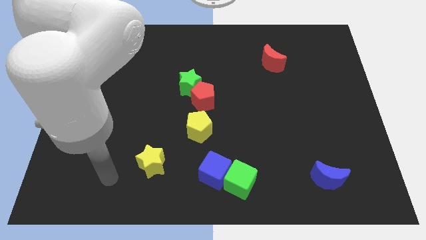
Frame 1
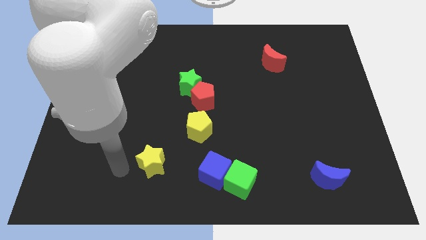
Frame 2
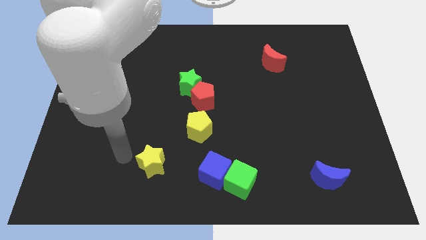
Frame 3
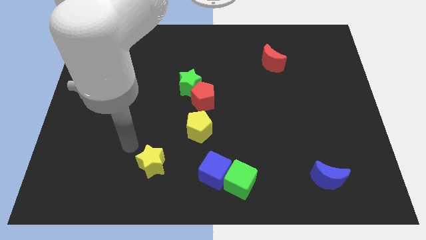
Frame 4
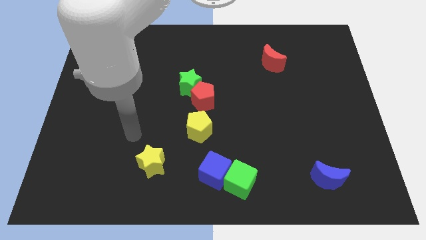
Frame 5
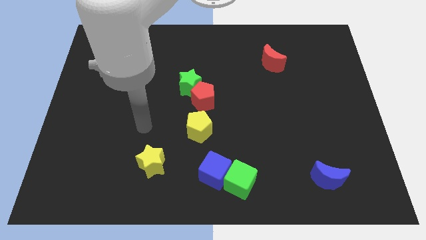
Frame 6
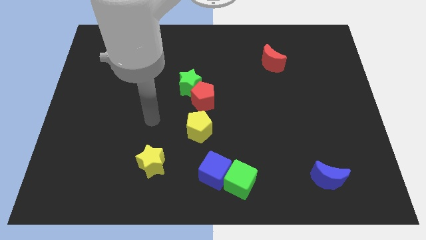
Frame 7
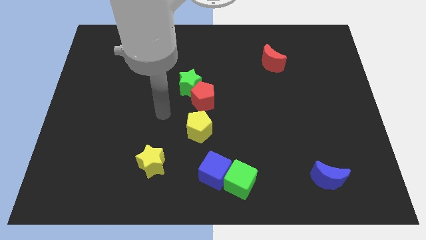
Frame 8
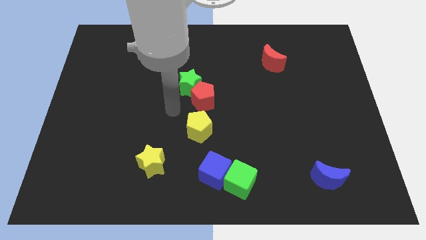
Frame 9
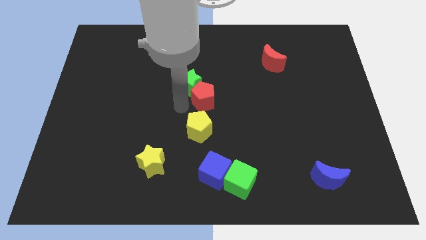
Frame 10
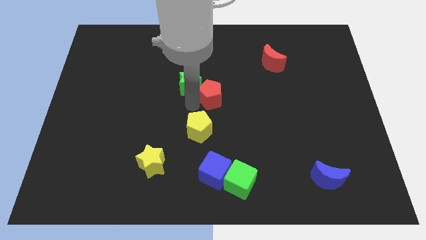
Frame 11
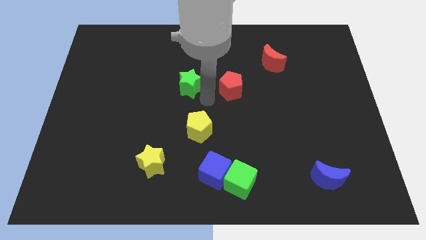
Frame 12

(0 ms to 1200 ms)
pull the green star apart from the red pentagon

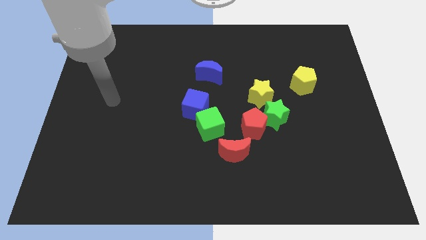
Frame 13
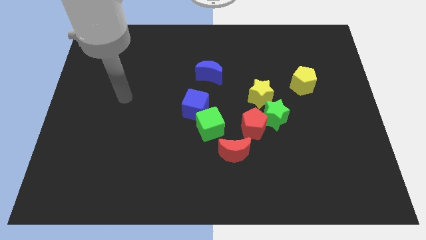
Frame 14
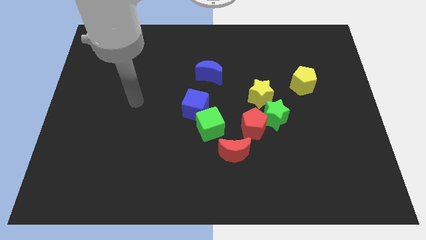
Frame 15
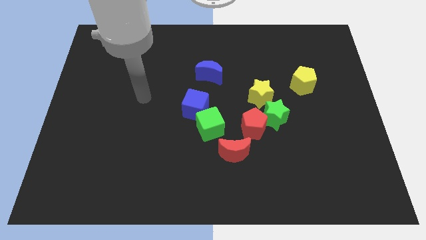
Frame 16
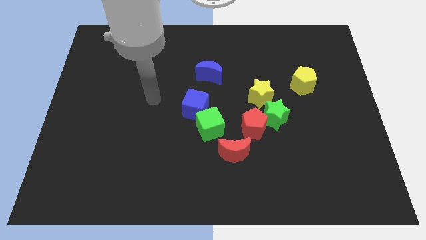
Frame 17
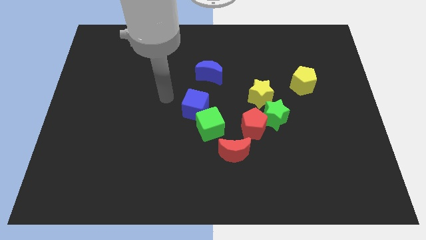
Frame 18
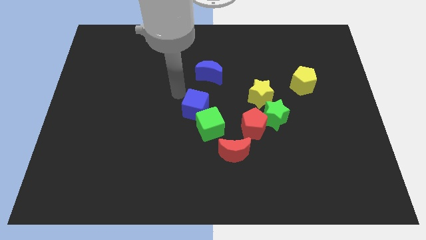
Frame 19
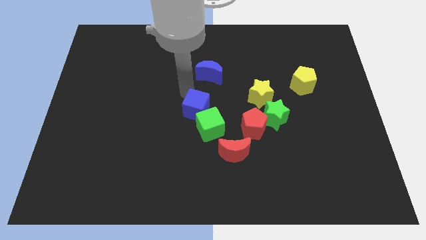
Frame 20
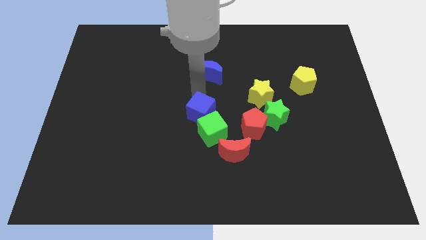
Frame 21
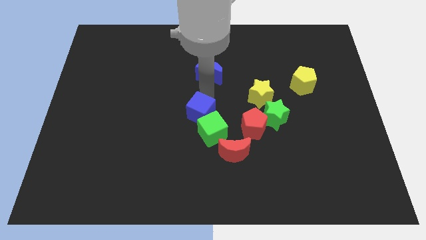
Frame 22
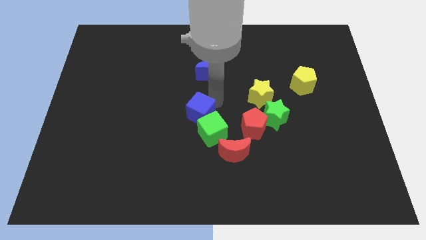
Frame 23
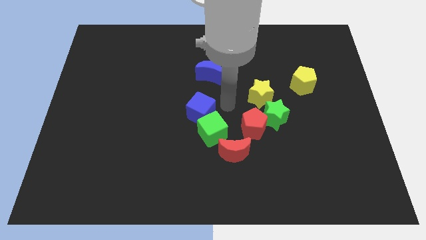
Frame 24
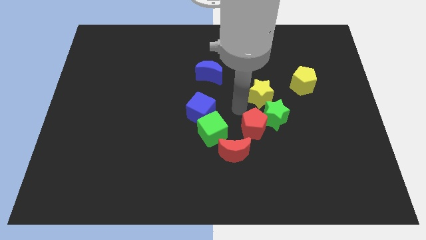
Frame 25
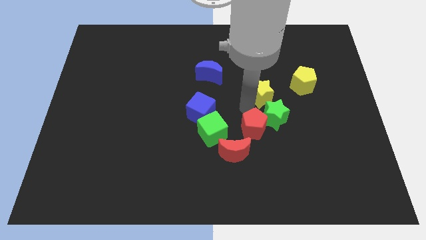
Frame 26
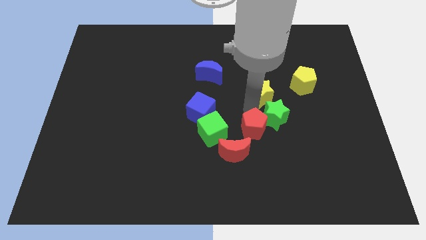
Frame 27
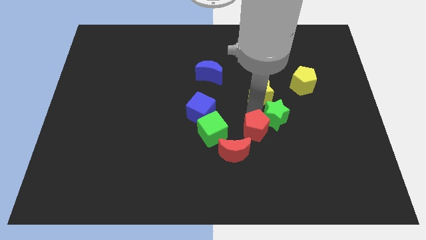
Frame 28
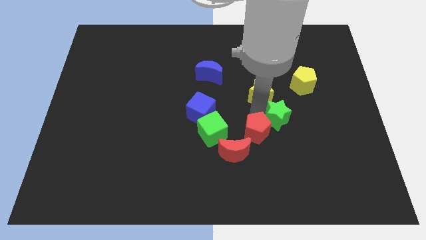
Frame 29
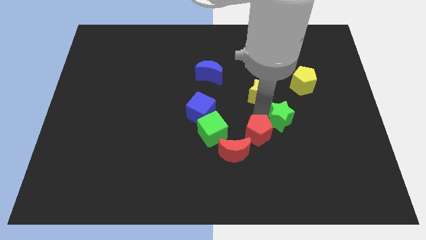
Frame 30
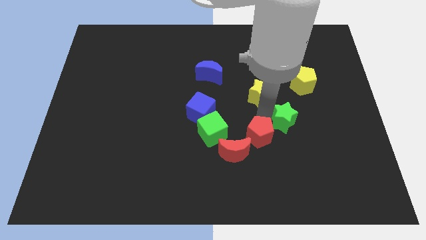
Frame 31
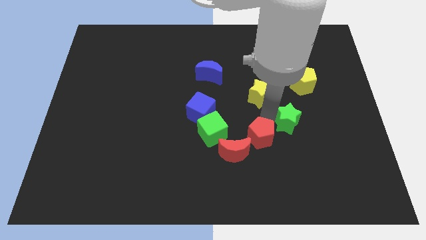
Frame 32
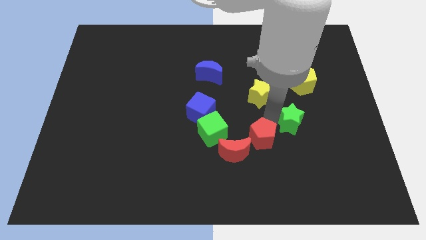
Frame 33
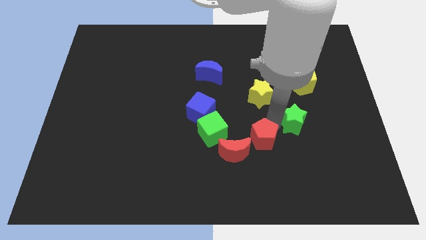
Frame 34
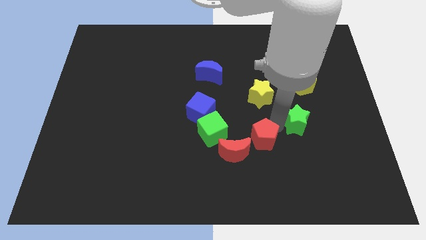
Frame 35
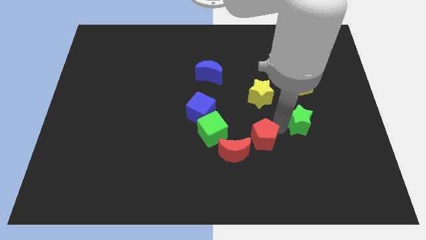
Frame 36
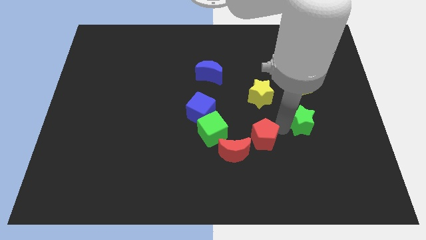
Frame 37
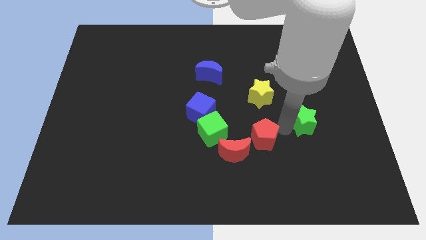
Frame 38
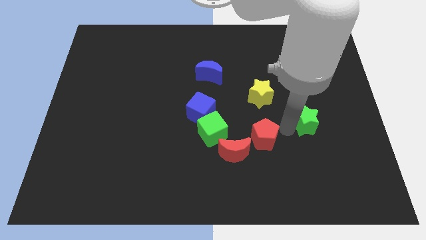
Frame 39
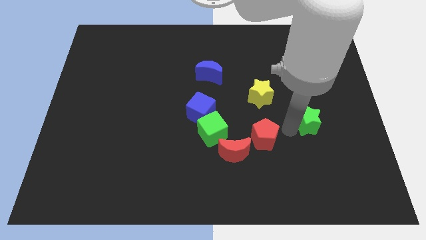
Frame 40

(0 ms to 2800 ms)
move the green star away from the red pentagon and yellow star

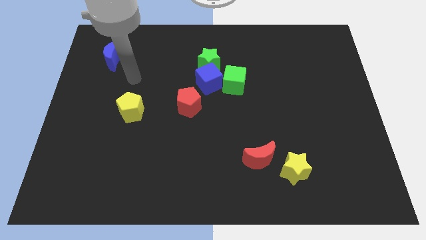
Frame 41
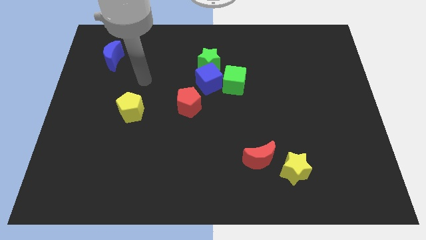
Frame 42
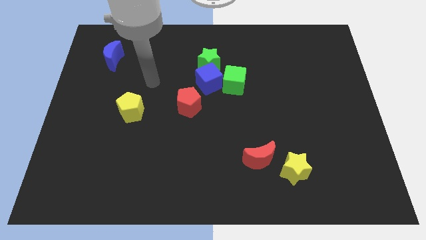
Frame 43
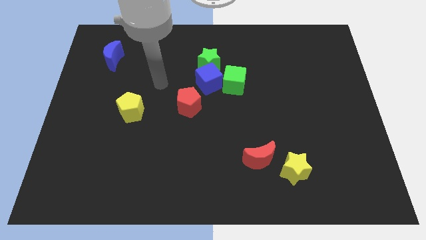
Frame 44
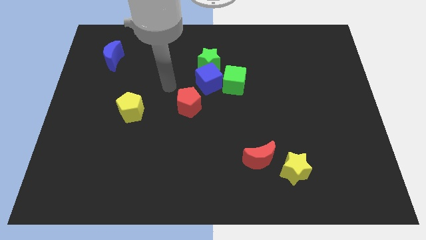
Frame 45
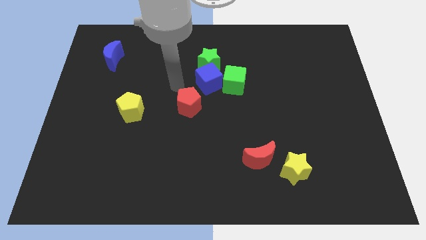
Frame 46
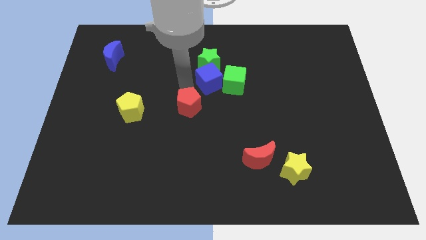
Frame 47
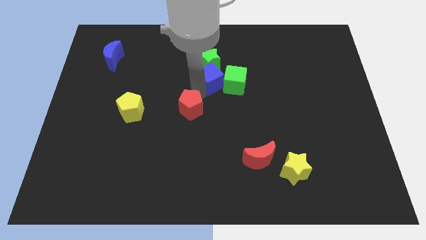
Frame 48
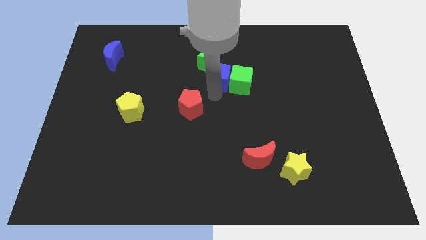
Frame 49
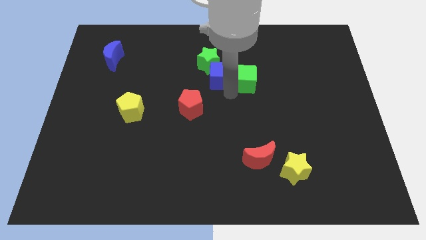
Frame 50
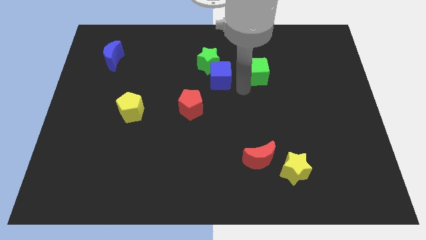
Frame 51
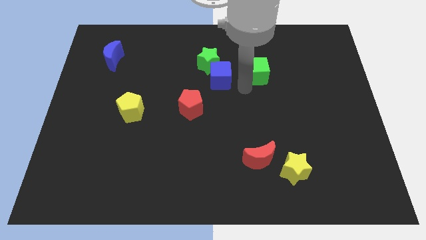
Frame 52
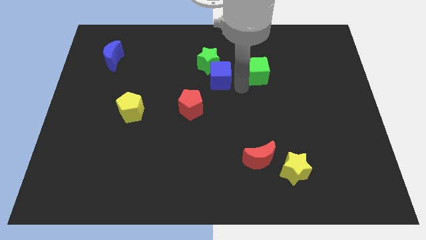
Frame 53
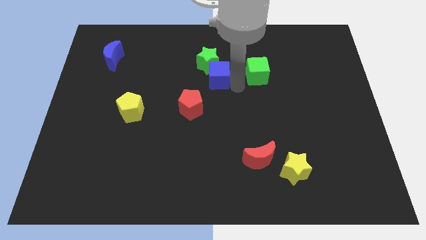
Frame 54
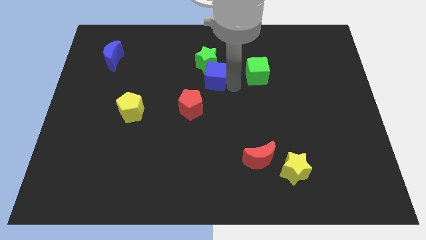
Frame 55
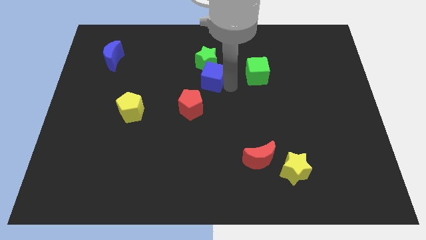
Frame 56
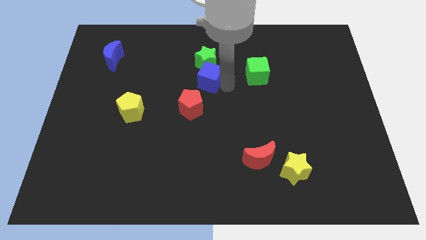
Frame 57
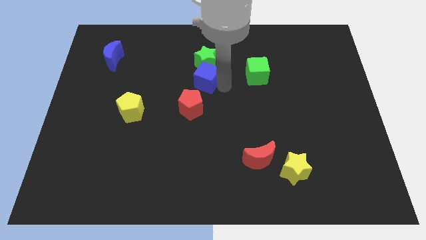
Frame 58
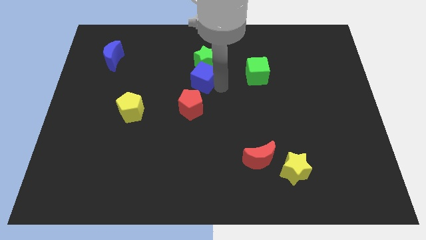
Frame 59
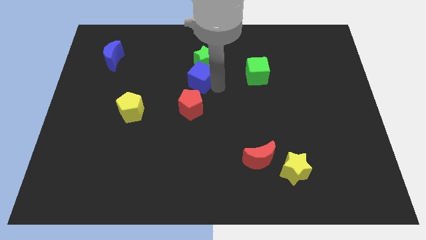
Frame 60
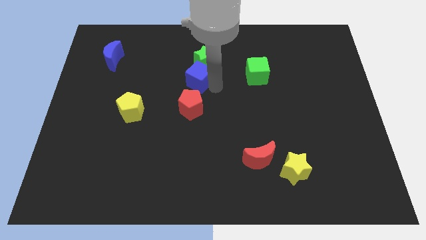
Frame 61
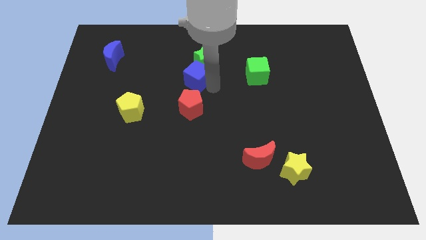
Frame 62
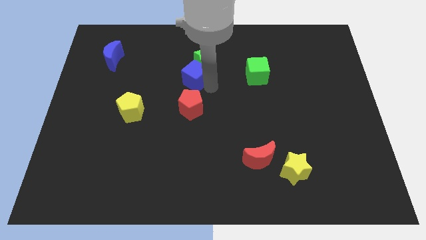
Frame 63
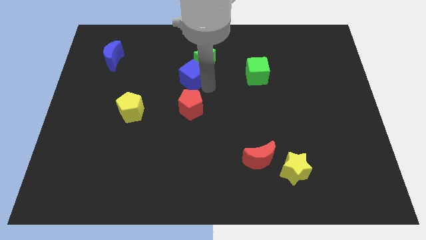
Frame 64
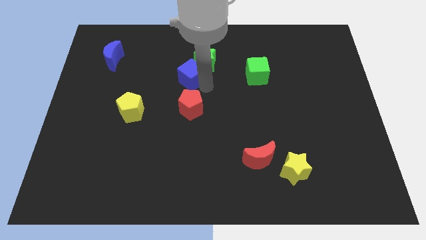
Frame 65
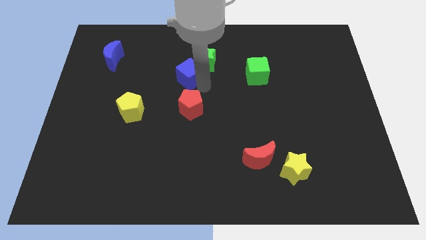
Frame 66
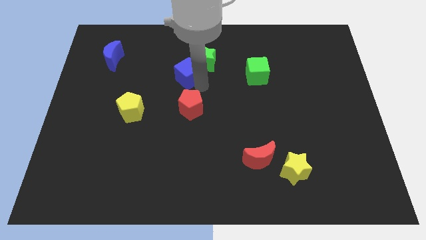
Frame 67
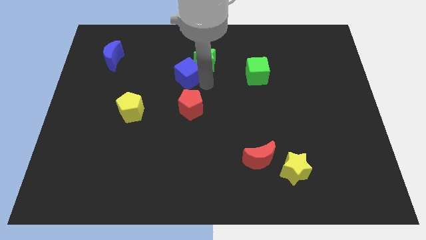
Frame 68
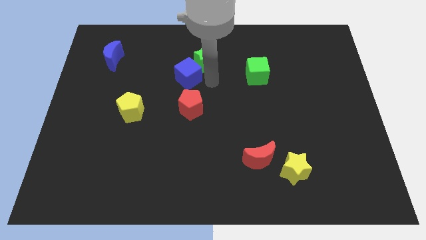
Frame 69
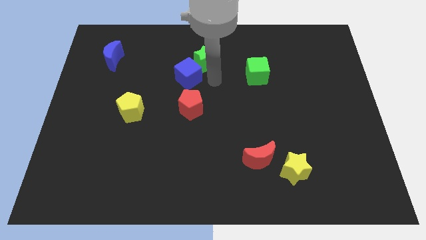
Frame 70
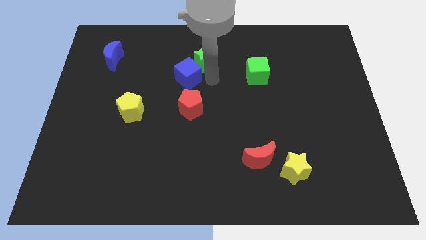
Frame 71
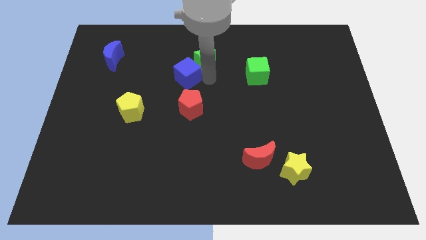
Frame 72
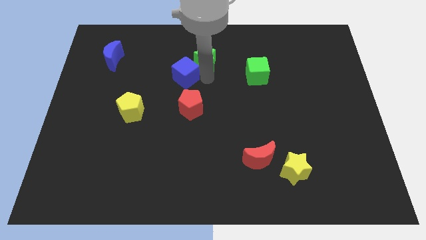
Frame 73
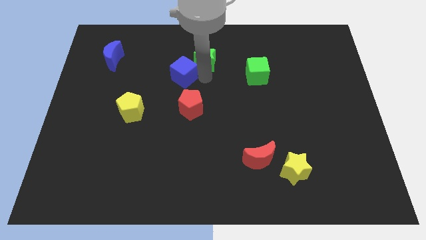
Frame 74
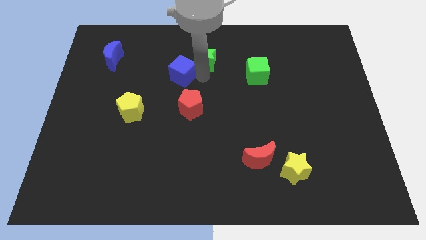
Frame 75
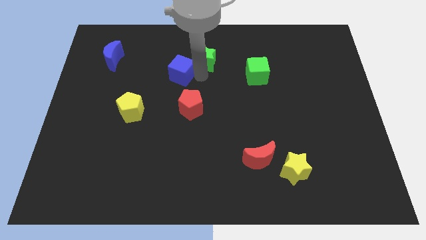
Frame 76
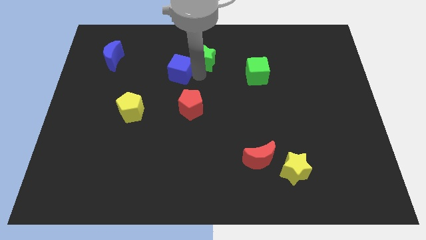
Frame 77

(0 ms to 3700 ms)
move the blue cube away from the green star, green cube, and red pentagon

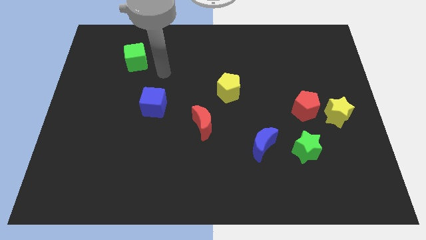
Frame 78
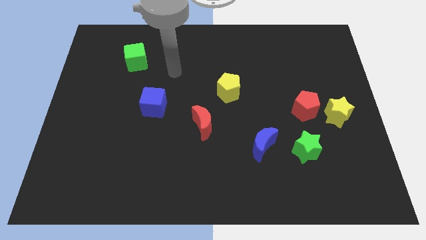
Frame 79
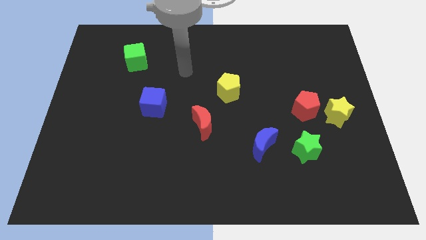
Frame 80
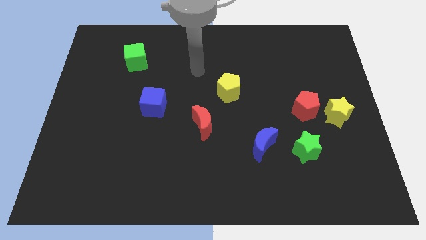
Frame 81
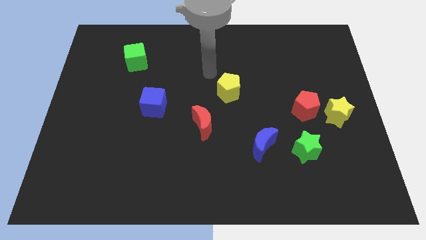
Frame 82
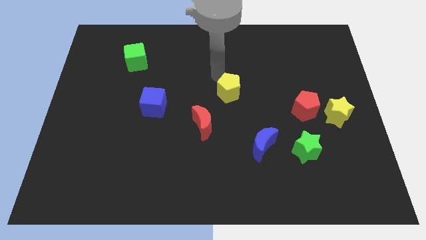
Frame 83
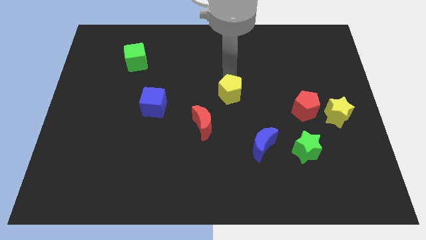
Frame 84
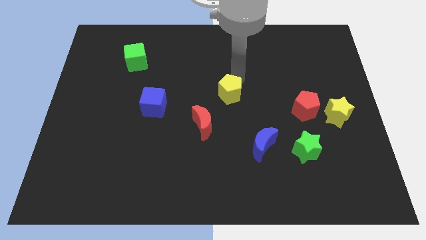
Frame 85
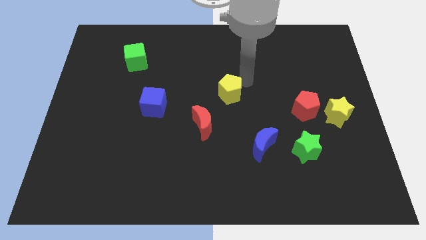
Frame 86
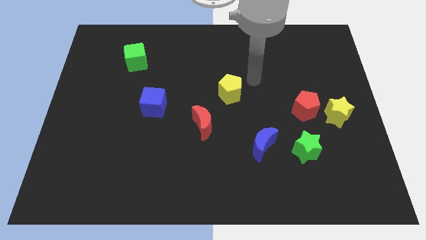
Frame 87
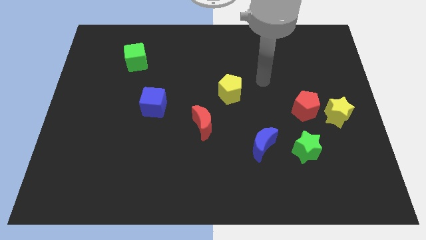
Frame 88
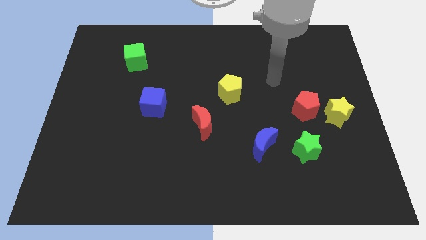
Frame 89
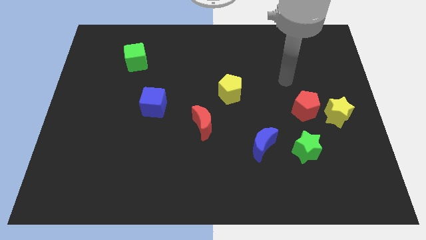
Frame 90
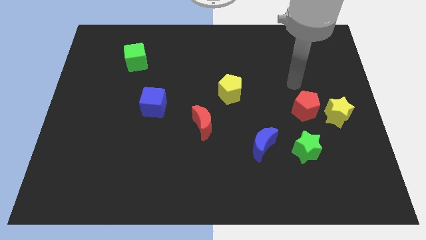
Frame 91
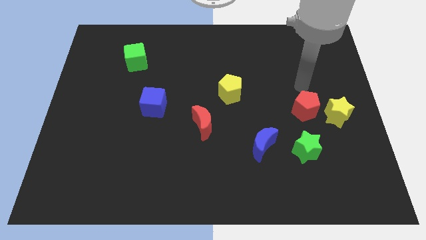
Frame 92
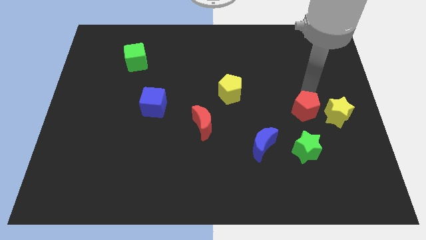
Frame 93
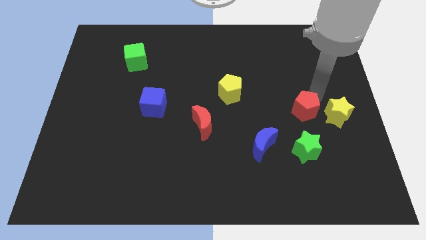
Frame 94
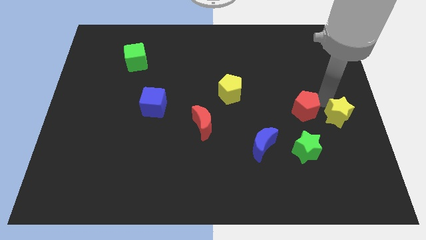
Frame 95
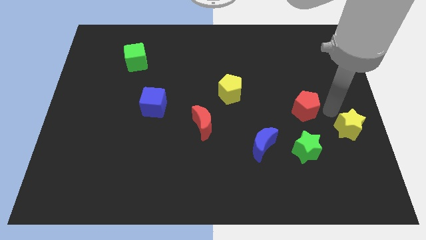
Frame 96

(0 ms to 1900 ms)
pull the red pentagon apart from the yellow star
